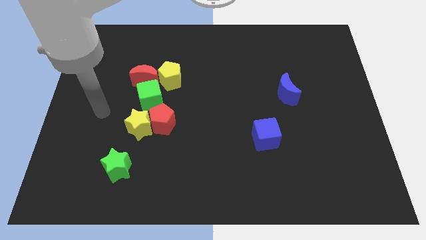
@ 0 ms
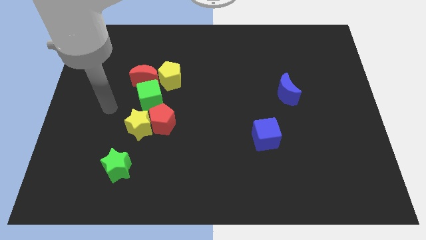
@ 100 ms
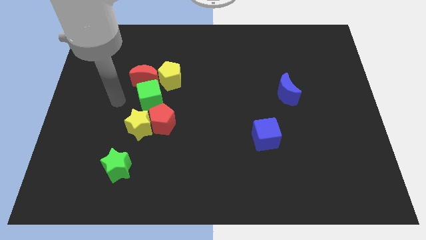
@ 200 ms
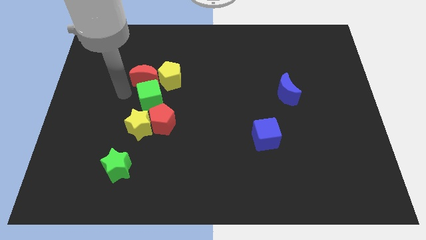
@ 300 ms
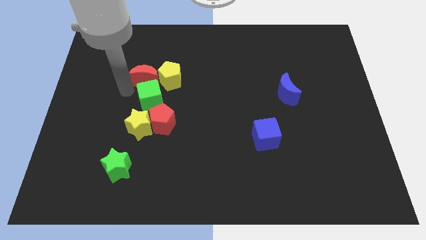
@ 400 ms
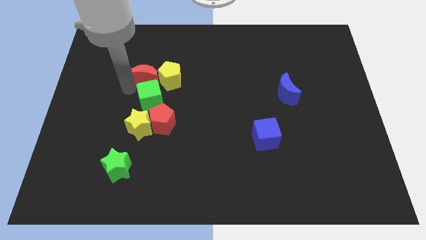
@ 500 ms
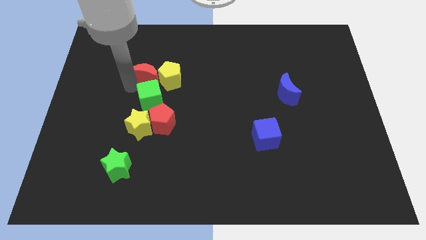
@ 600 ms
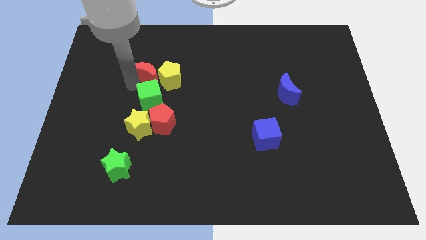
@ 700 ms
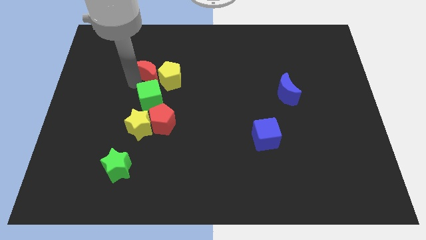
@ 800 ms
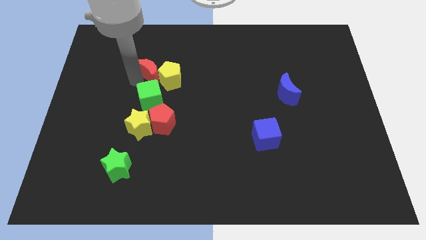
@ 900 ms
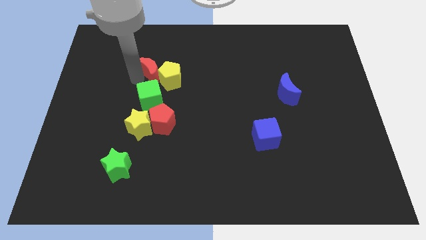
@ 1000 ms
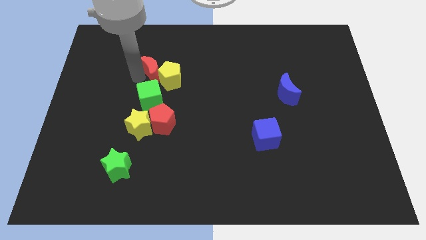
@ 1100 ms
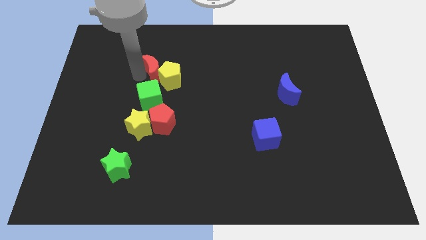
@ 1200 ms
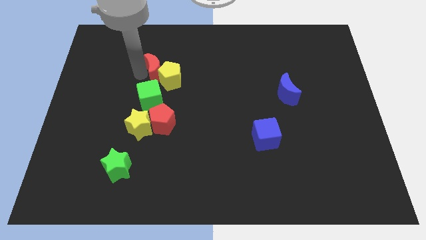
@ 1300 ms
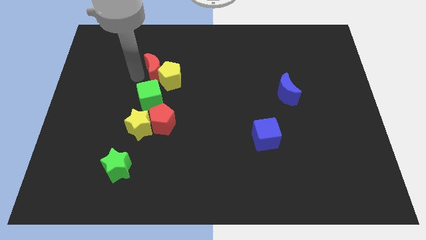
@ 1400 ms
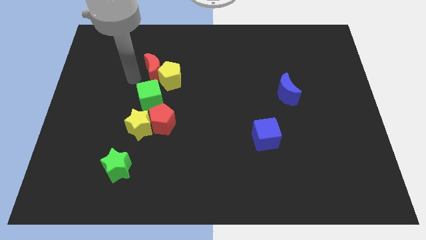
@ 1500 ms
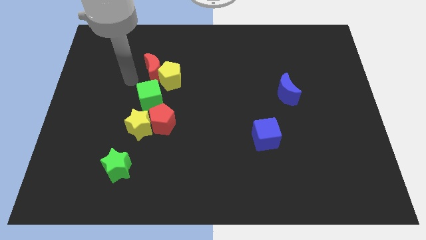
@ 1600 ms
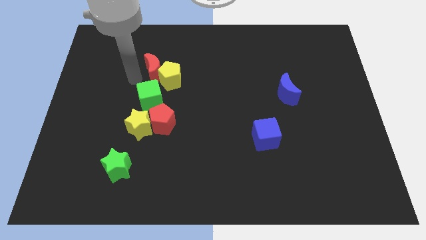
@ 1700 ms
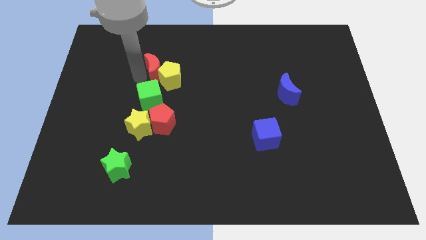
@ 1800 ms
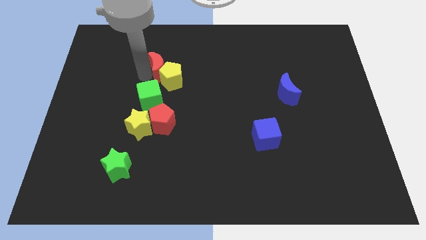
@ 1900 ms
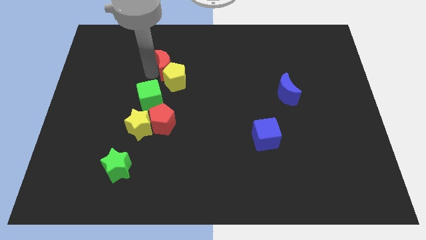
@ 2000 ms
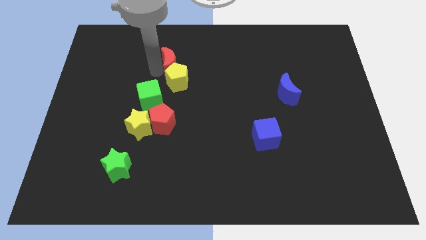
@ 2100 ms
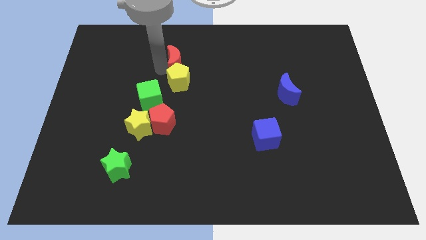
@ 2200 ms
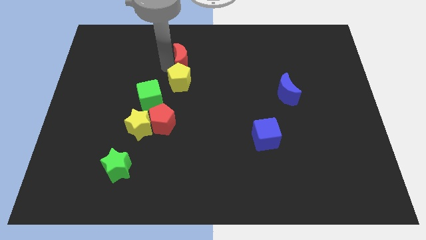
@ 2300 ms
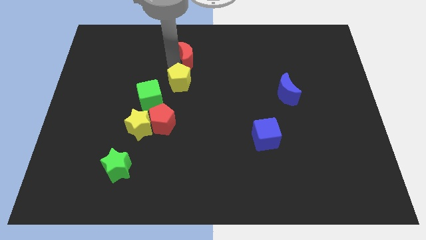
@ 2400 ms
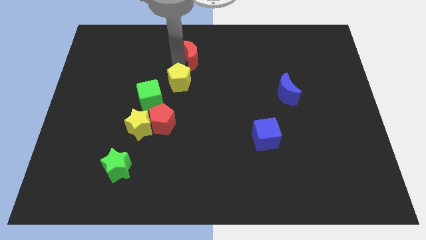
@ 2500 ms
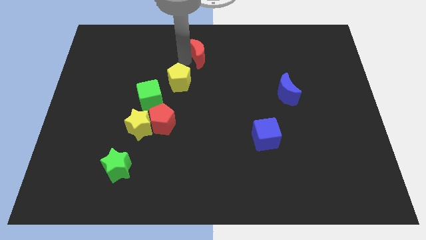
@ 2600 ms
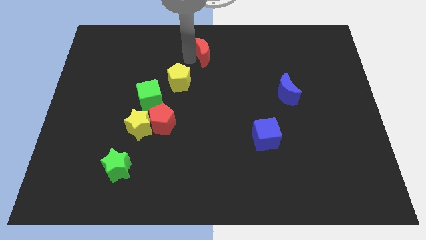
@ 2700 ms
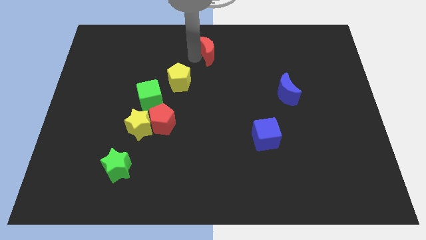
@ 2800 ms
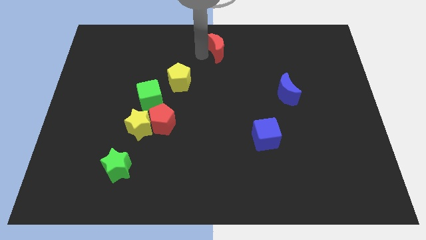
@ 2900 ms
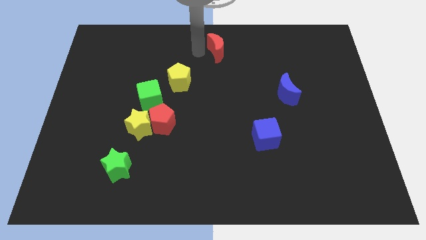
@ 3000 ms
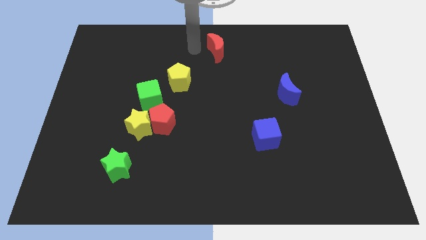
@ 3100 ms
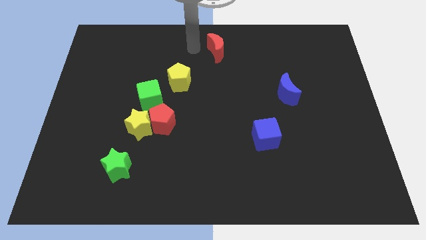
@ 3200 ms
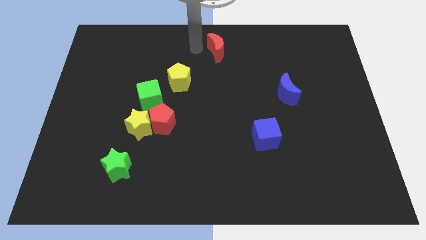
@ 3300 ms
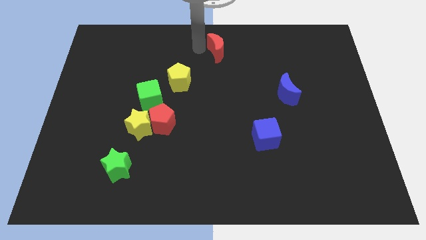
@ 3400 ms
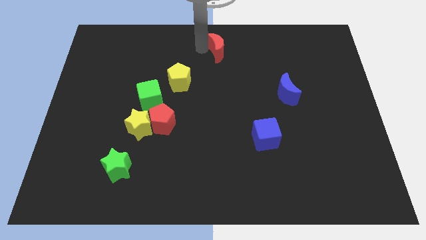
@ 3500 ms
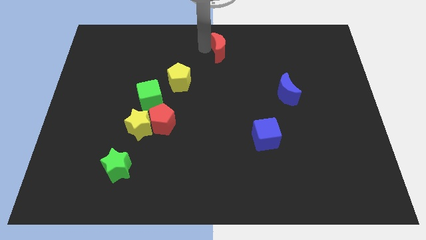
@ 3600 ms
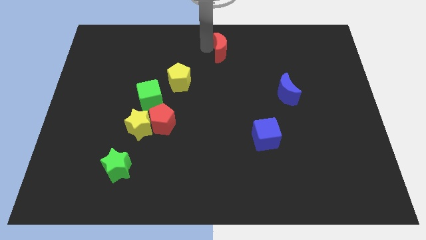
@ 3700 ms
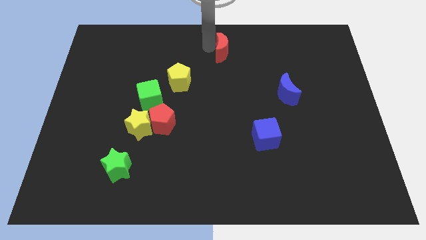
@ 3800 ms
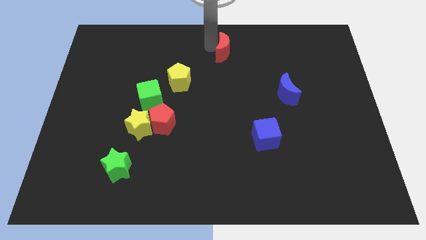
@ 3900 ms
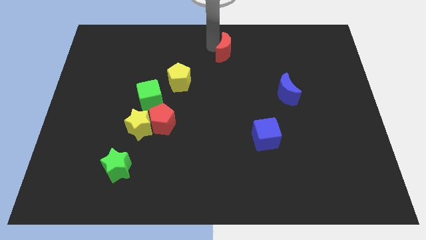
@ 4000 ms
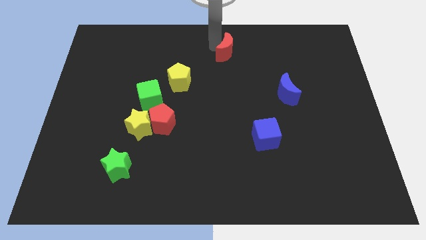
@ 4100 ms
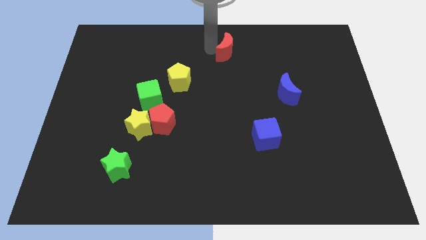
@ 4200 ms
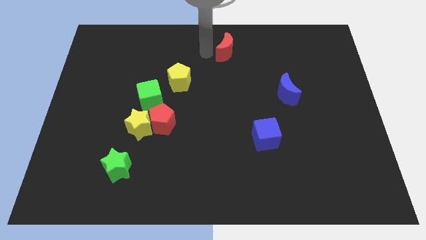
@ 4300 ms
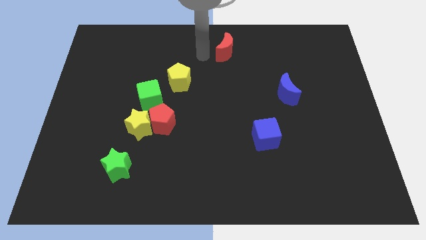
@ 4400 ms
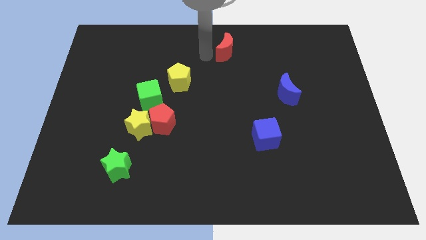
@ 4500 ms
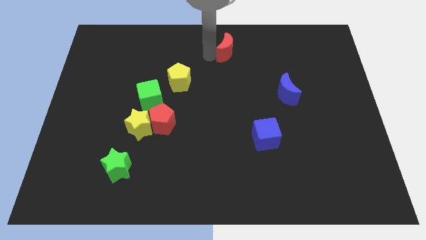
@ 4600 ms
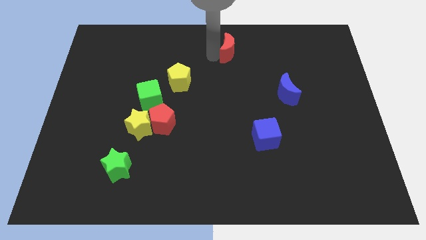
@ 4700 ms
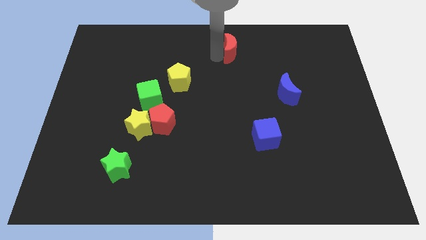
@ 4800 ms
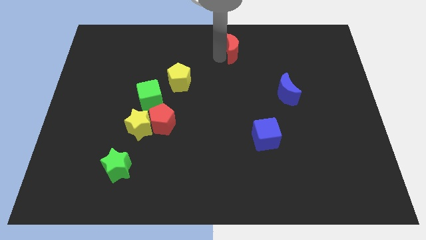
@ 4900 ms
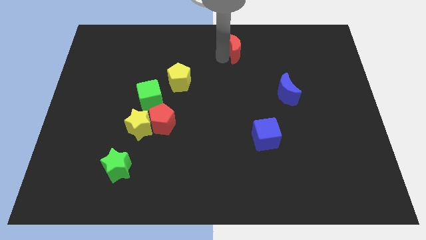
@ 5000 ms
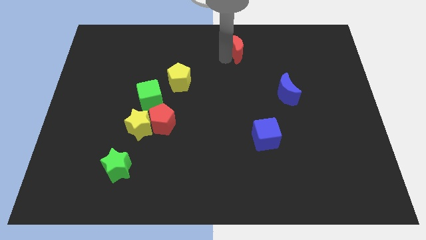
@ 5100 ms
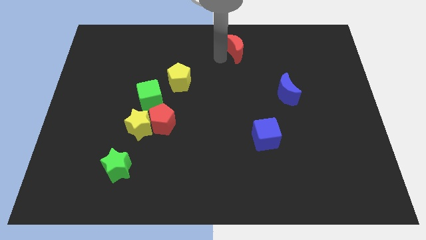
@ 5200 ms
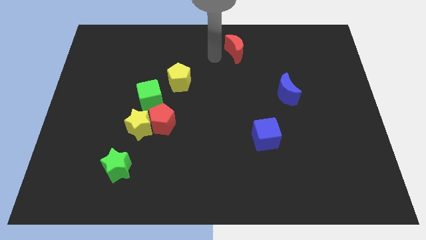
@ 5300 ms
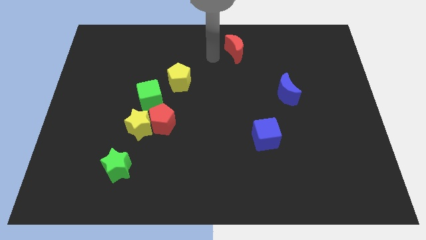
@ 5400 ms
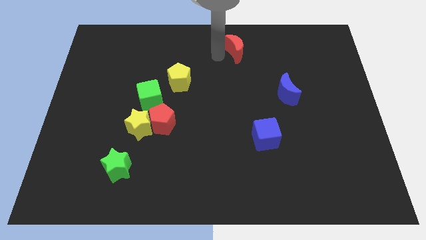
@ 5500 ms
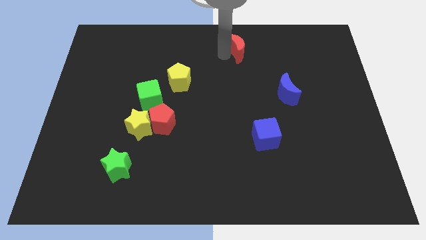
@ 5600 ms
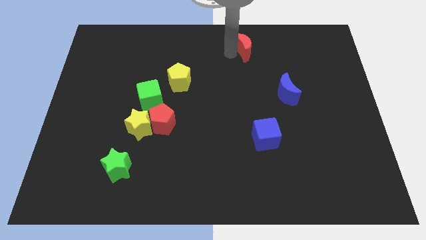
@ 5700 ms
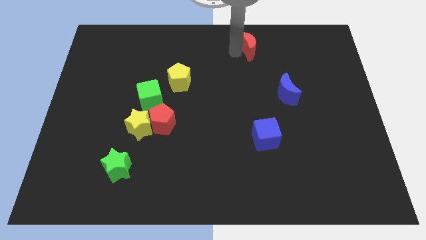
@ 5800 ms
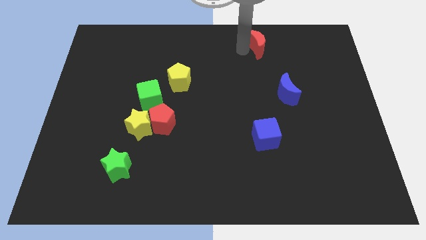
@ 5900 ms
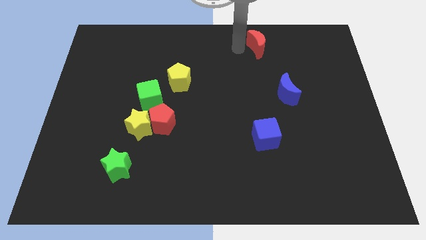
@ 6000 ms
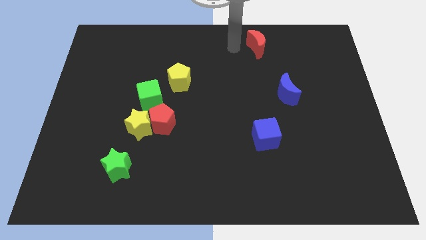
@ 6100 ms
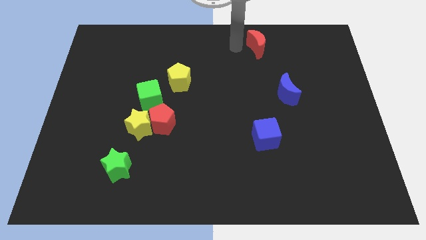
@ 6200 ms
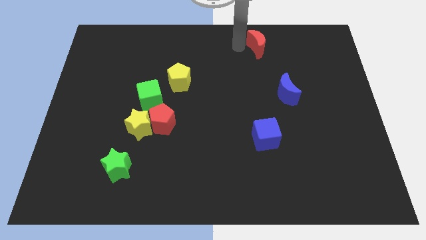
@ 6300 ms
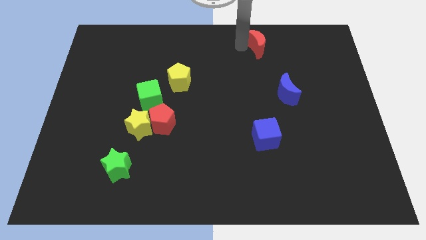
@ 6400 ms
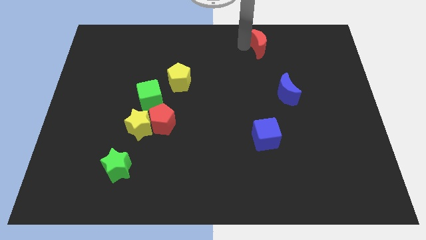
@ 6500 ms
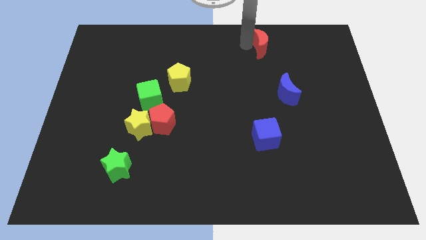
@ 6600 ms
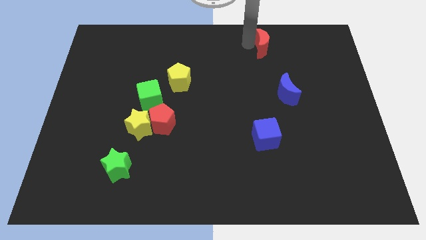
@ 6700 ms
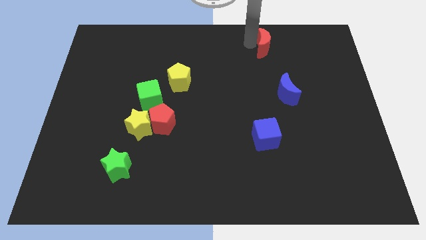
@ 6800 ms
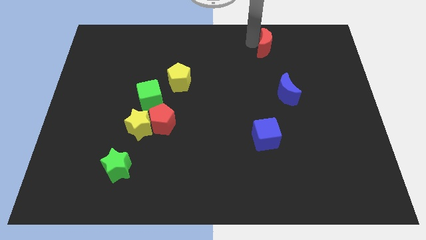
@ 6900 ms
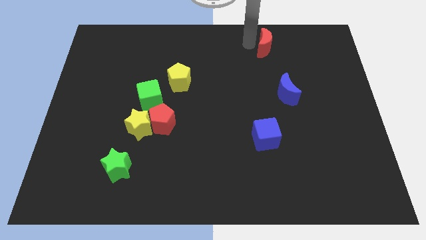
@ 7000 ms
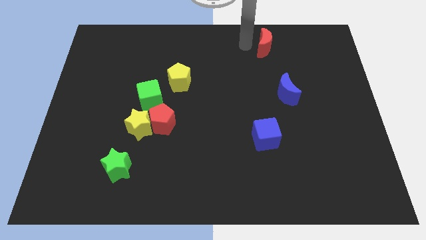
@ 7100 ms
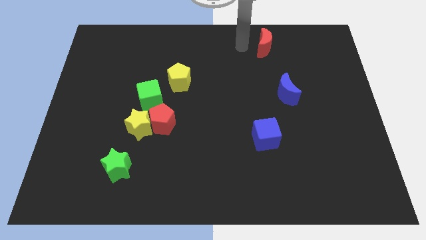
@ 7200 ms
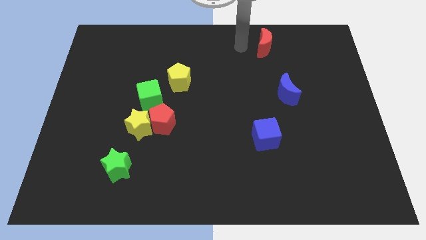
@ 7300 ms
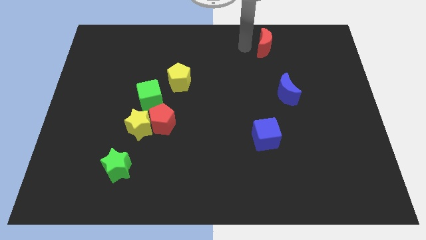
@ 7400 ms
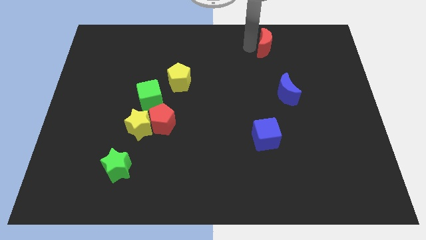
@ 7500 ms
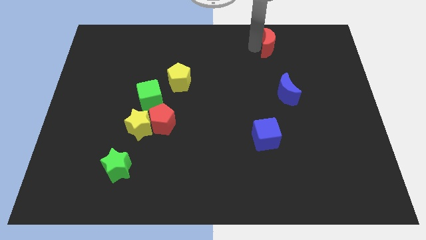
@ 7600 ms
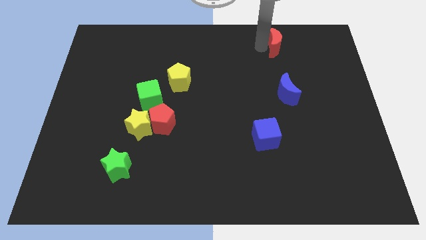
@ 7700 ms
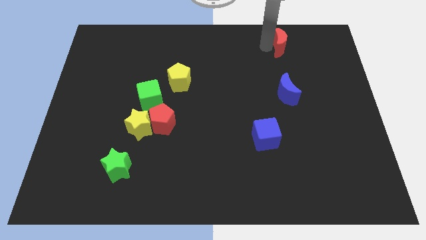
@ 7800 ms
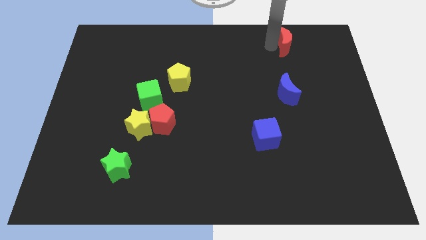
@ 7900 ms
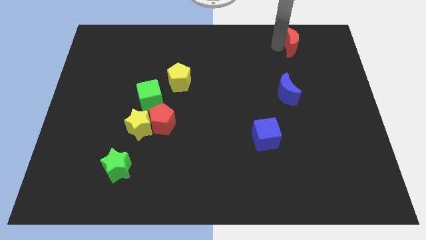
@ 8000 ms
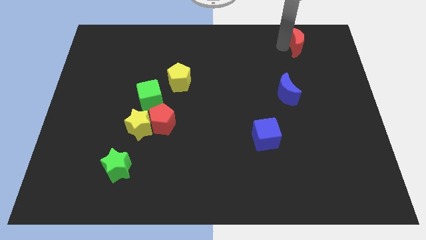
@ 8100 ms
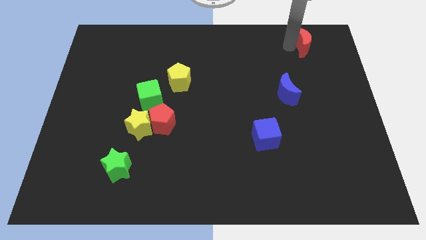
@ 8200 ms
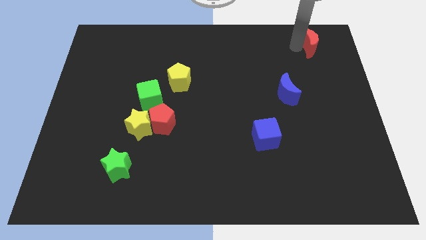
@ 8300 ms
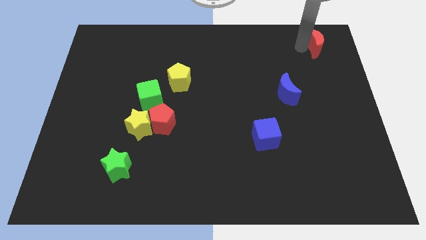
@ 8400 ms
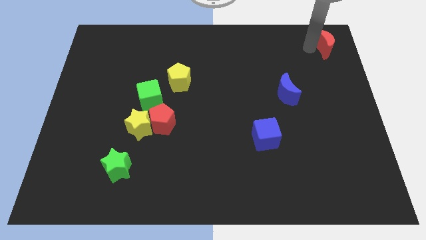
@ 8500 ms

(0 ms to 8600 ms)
put the red moon to the top right
